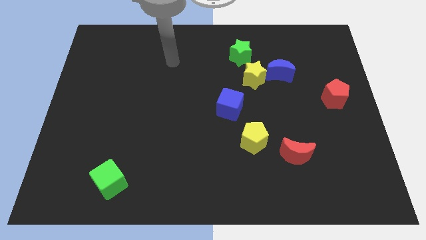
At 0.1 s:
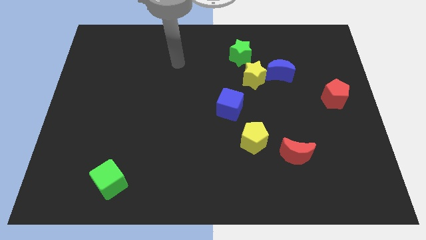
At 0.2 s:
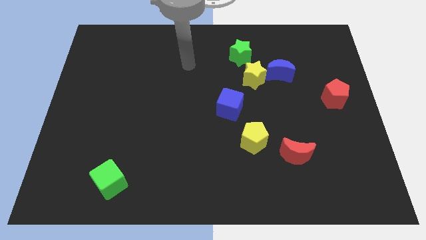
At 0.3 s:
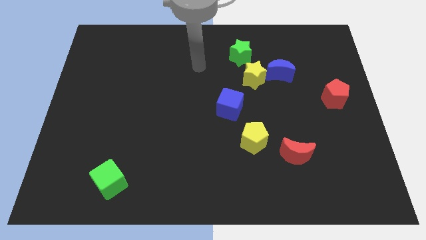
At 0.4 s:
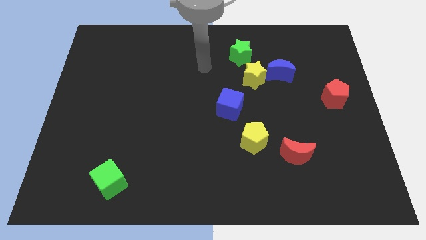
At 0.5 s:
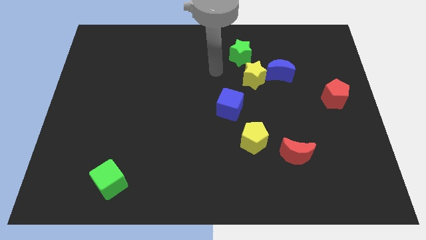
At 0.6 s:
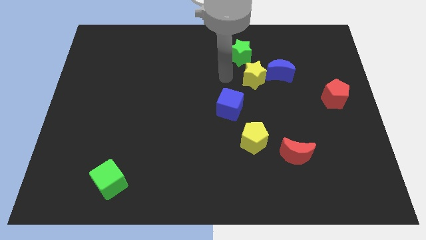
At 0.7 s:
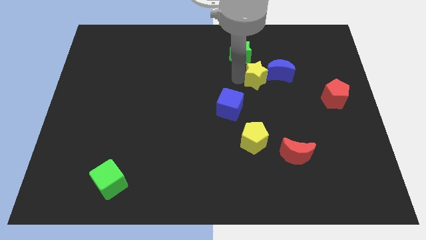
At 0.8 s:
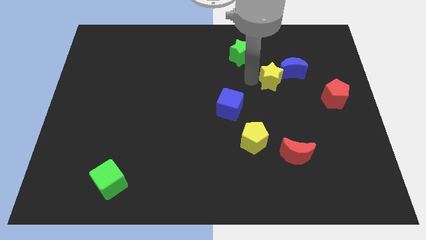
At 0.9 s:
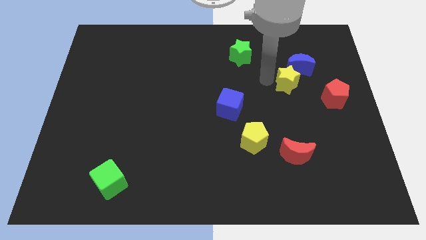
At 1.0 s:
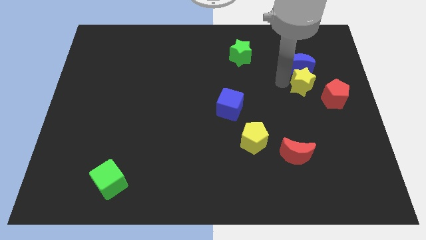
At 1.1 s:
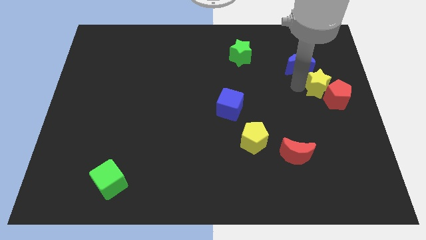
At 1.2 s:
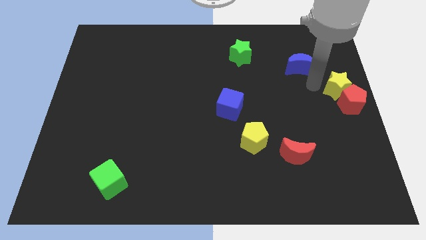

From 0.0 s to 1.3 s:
move the blue moon away from the yellow star

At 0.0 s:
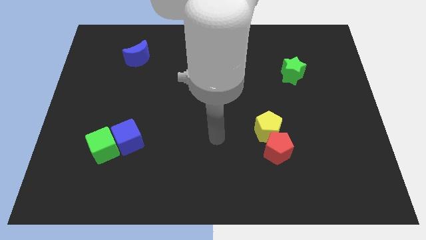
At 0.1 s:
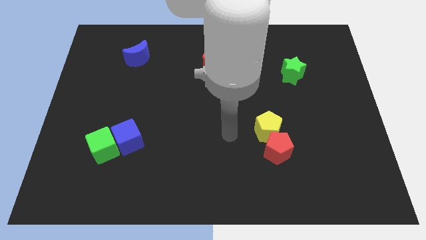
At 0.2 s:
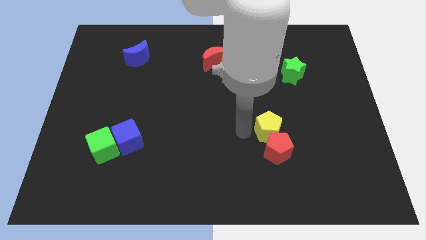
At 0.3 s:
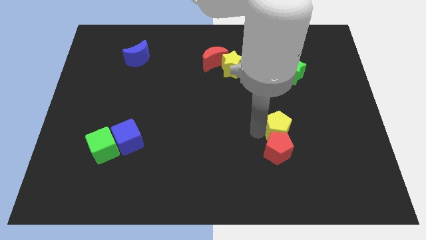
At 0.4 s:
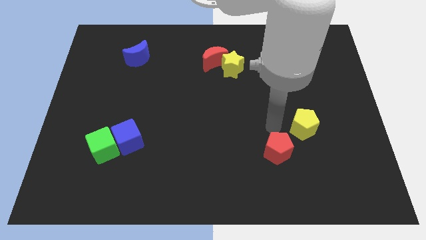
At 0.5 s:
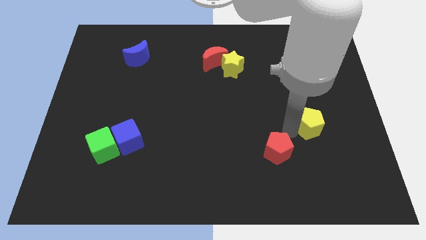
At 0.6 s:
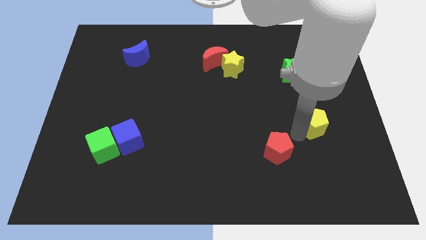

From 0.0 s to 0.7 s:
separate the red pentagon from the yellow pentagon

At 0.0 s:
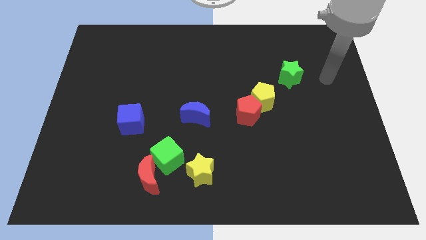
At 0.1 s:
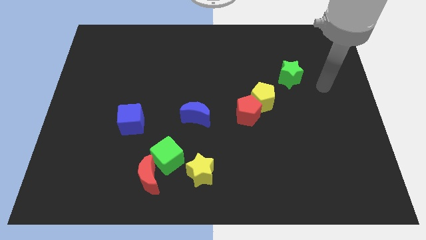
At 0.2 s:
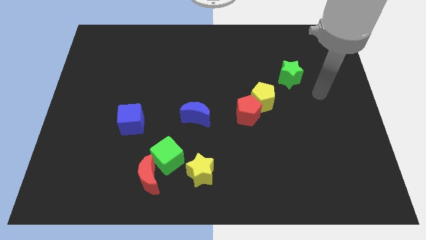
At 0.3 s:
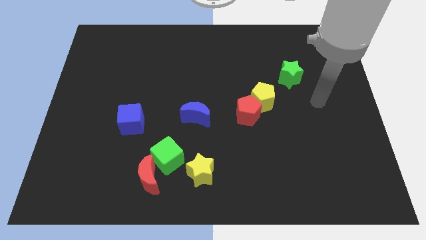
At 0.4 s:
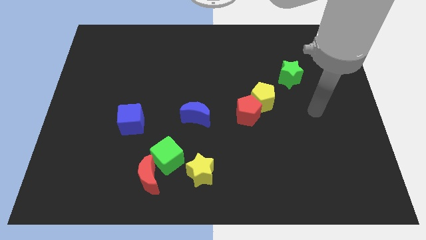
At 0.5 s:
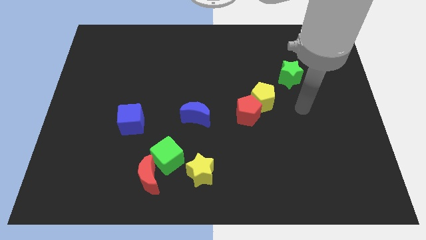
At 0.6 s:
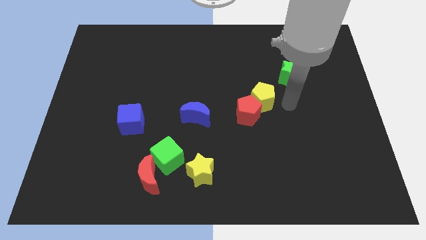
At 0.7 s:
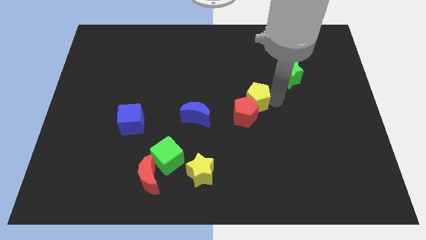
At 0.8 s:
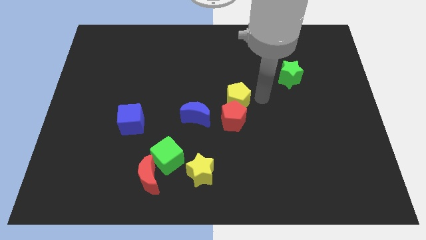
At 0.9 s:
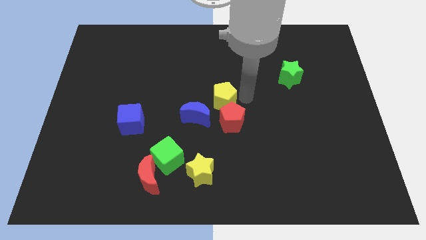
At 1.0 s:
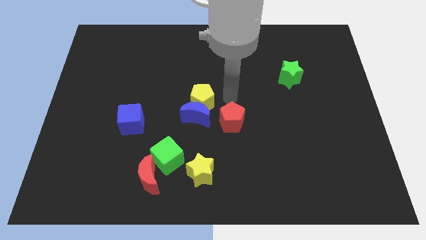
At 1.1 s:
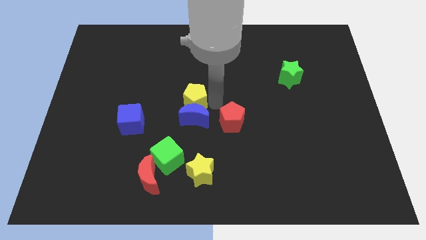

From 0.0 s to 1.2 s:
move the red pentagon away from the yellow pentagon

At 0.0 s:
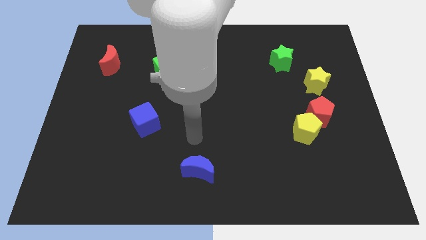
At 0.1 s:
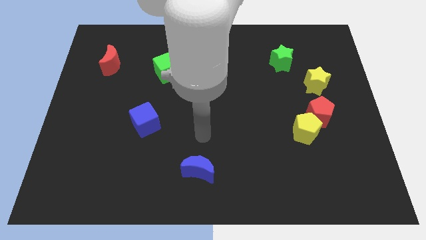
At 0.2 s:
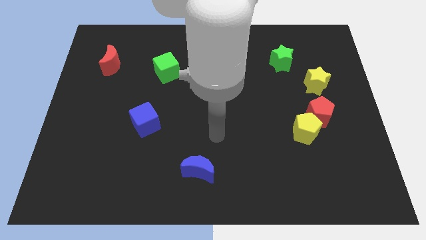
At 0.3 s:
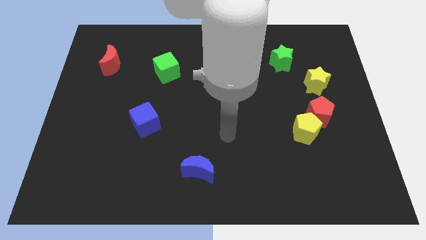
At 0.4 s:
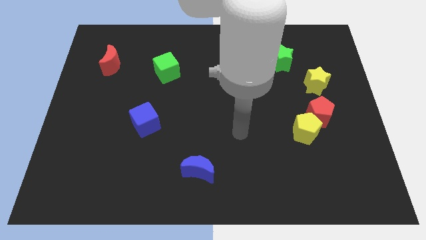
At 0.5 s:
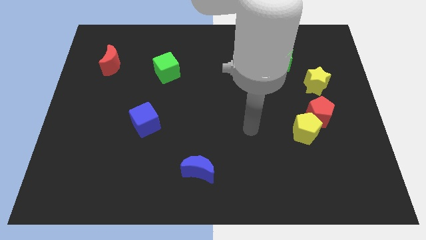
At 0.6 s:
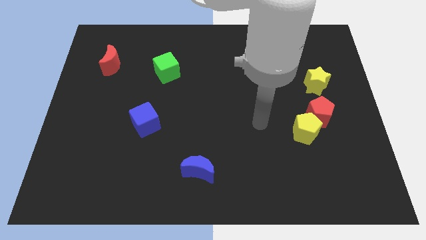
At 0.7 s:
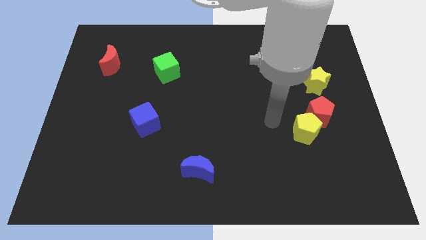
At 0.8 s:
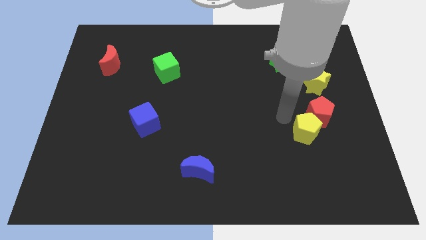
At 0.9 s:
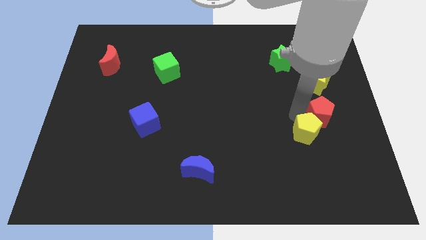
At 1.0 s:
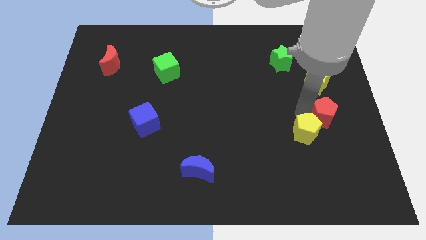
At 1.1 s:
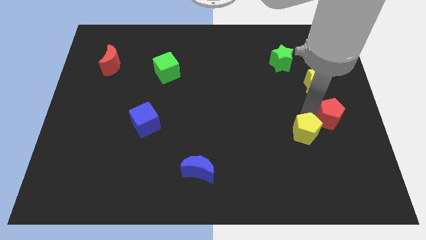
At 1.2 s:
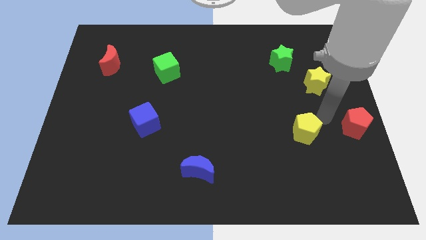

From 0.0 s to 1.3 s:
separate the yellow pentagon from the red pentagon

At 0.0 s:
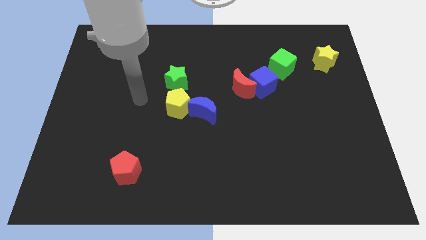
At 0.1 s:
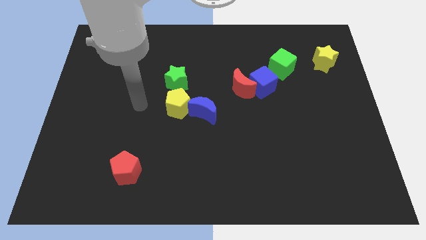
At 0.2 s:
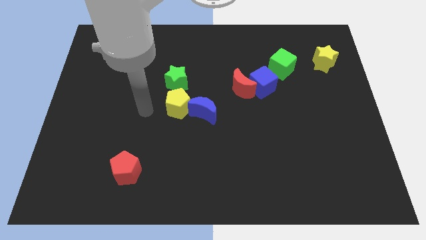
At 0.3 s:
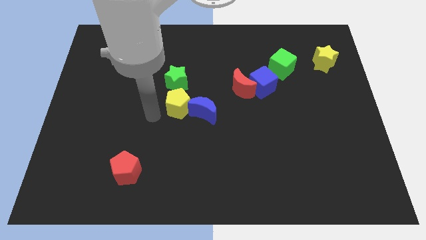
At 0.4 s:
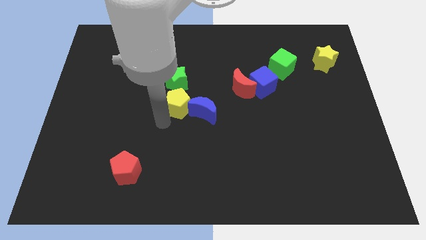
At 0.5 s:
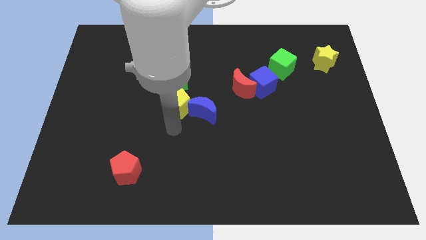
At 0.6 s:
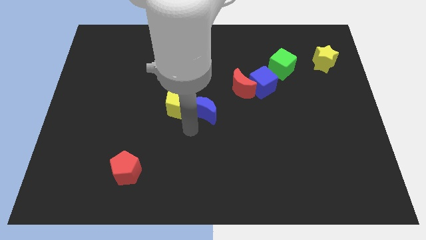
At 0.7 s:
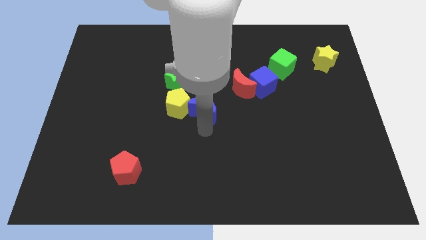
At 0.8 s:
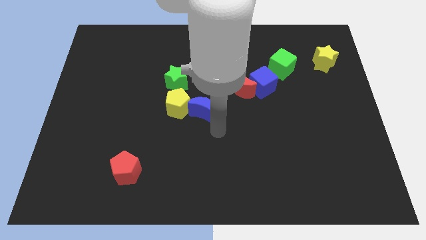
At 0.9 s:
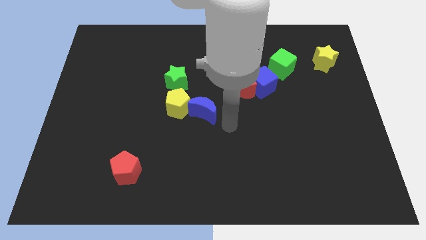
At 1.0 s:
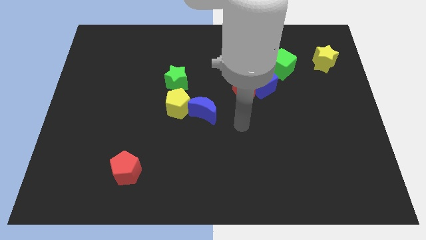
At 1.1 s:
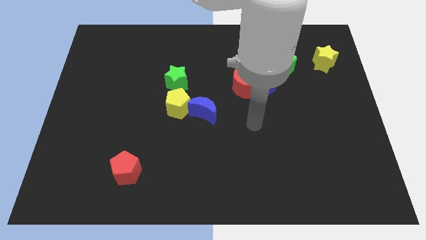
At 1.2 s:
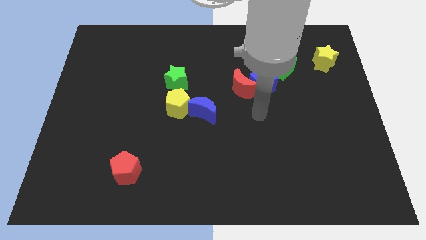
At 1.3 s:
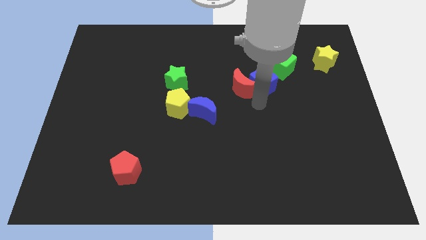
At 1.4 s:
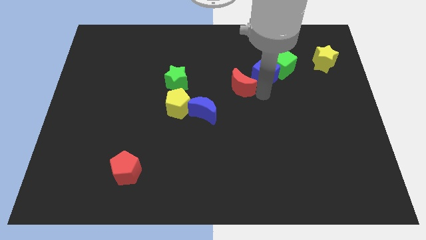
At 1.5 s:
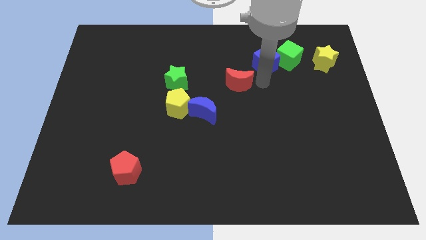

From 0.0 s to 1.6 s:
pull the red moon apart from the blue cube

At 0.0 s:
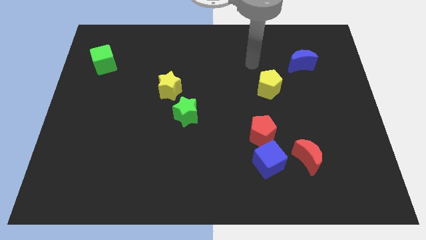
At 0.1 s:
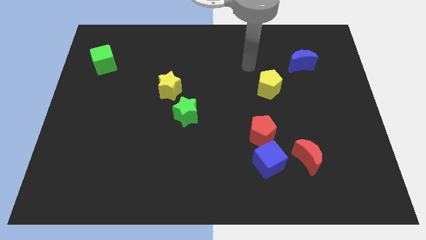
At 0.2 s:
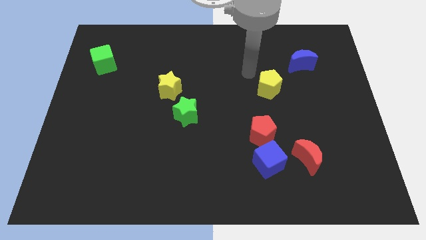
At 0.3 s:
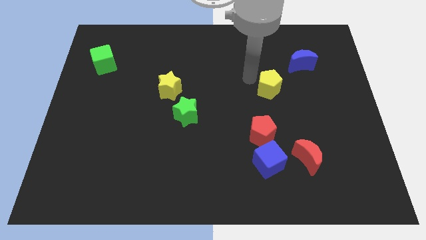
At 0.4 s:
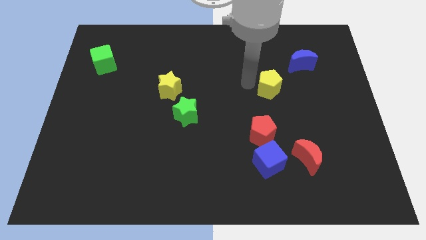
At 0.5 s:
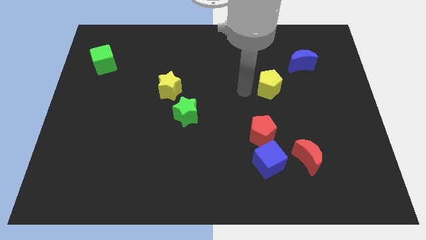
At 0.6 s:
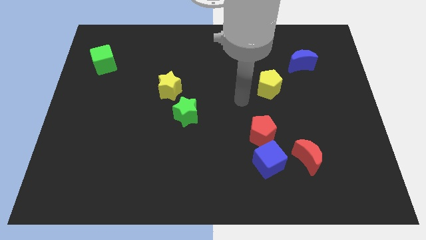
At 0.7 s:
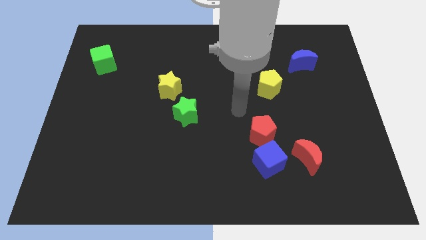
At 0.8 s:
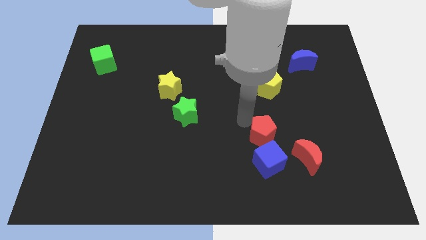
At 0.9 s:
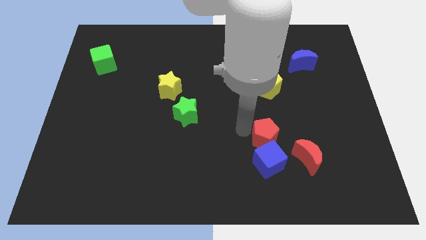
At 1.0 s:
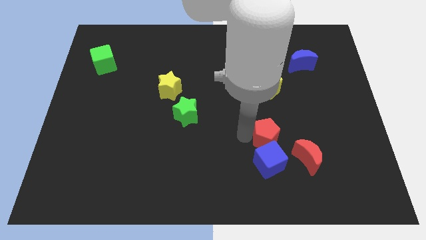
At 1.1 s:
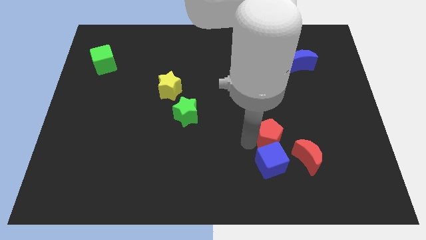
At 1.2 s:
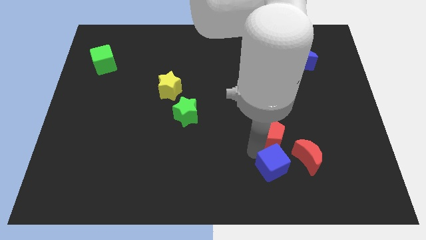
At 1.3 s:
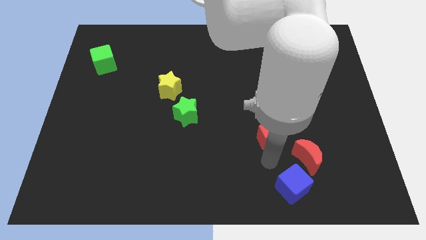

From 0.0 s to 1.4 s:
move the red pentagon away from the blue cube

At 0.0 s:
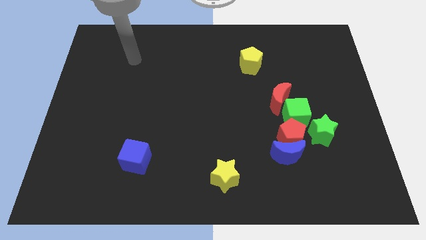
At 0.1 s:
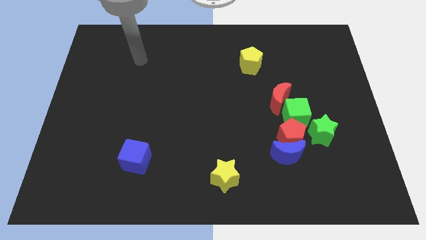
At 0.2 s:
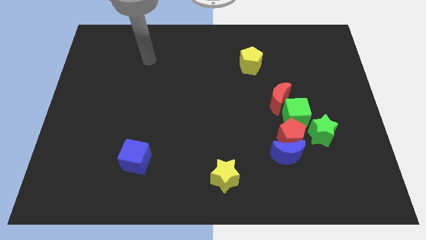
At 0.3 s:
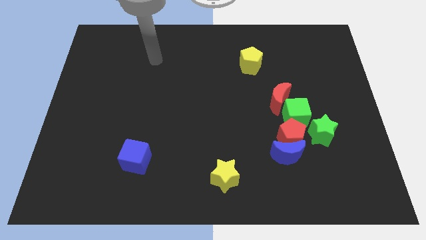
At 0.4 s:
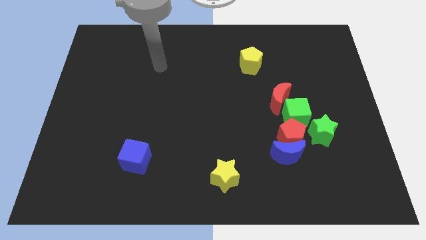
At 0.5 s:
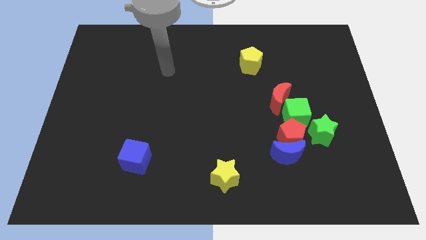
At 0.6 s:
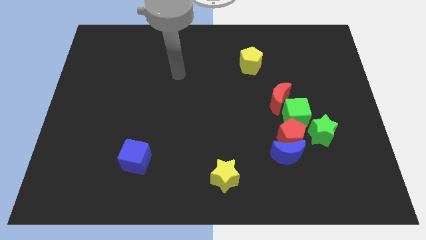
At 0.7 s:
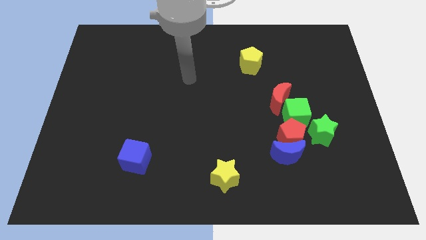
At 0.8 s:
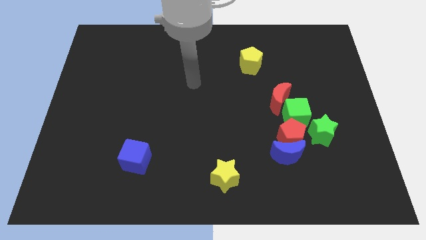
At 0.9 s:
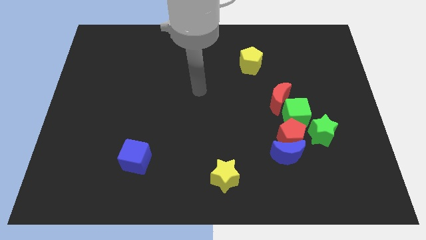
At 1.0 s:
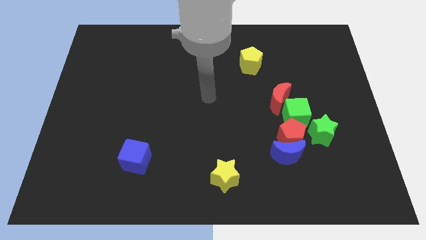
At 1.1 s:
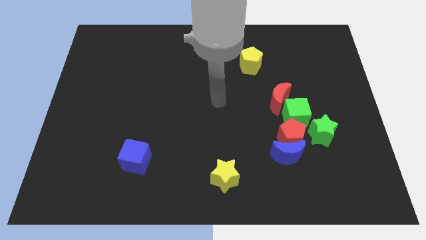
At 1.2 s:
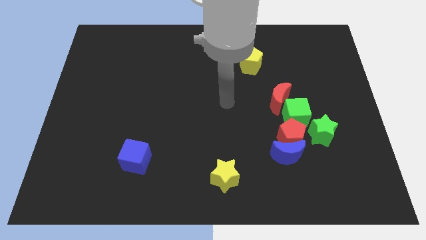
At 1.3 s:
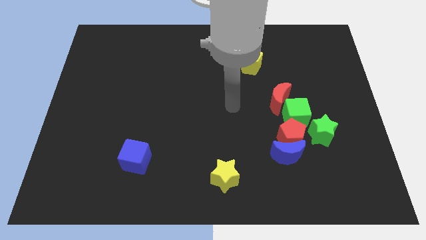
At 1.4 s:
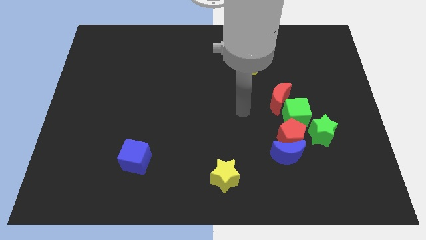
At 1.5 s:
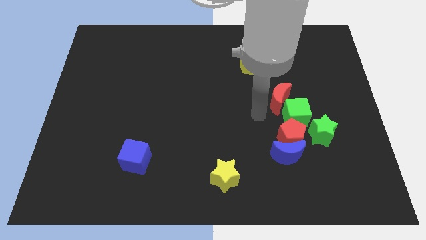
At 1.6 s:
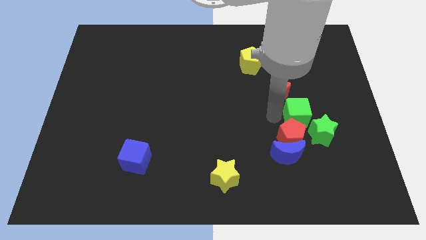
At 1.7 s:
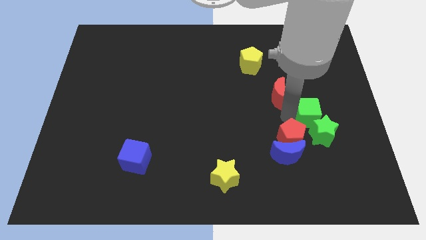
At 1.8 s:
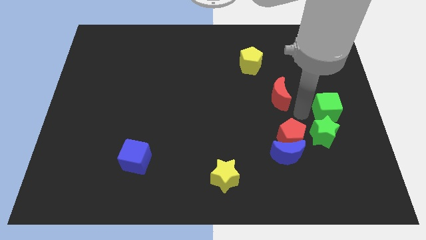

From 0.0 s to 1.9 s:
pull the red moon apart from the green cube
